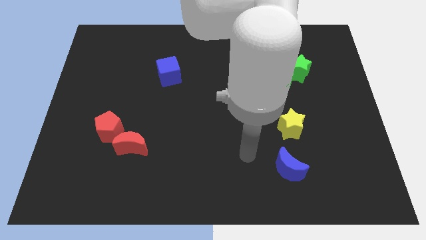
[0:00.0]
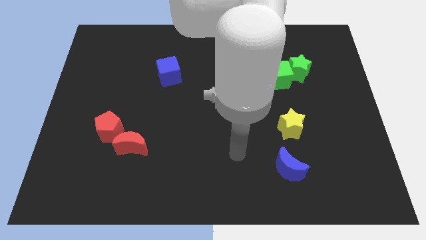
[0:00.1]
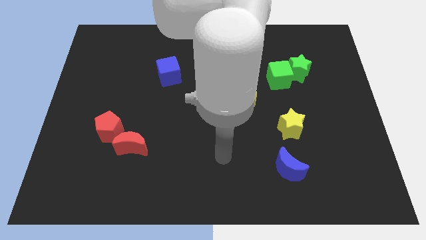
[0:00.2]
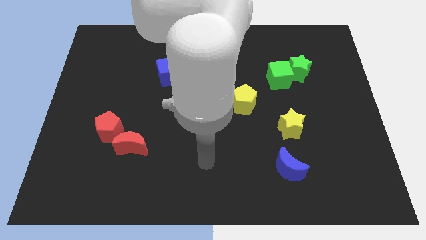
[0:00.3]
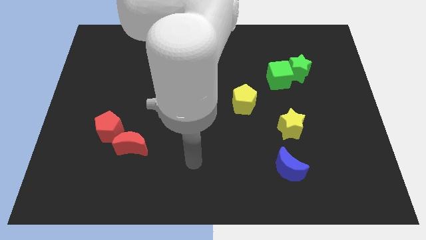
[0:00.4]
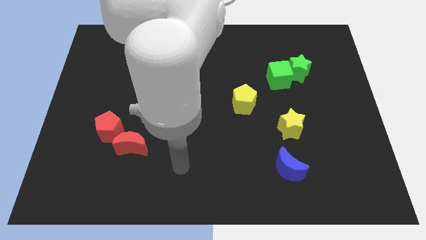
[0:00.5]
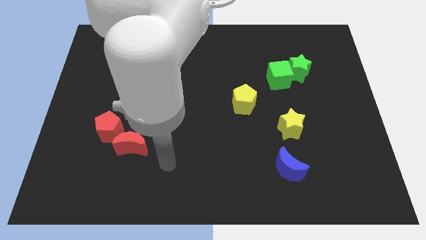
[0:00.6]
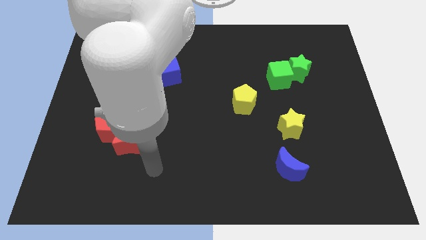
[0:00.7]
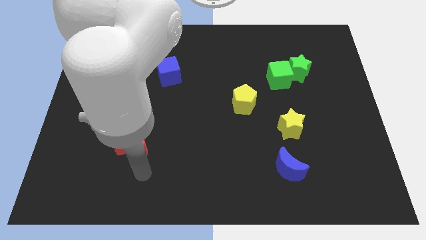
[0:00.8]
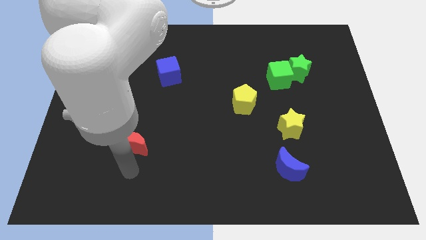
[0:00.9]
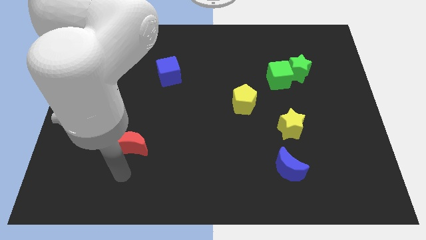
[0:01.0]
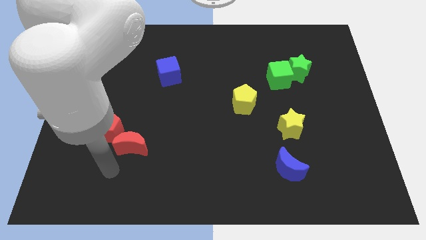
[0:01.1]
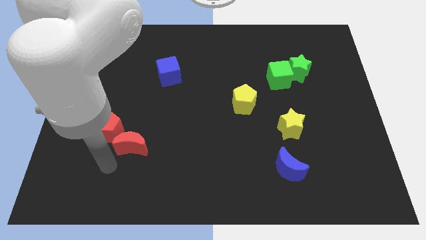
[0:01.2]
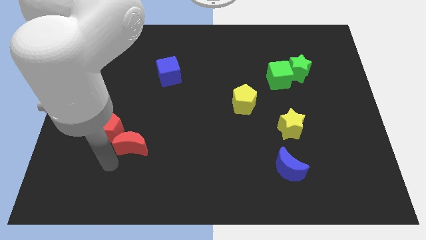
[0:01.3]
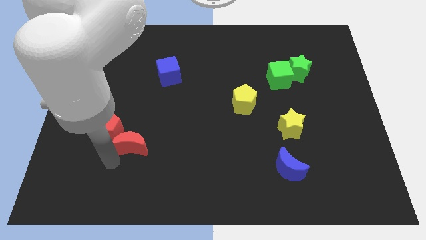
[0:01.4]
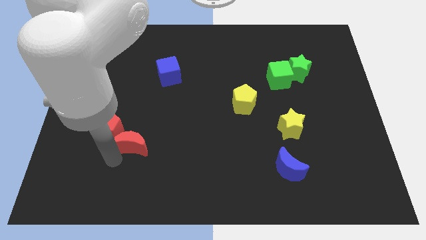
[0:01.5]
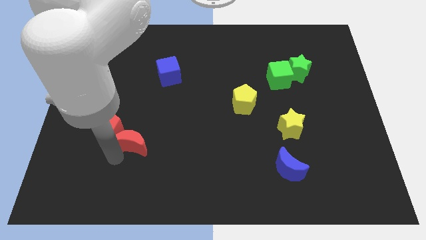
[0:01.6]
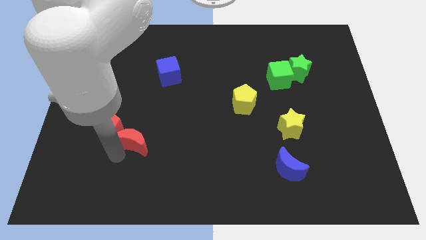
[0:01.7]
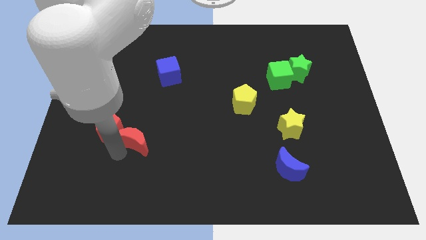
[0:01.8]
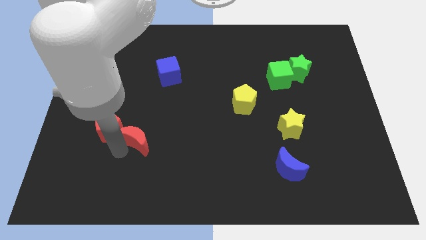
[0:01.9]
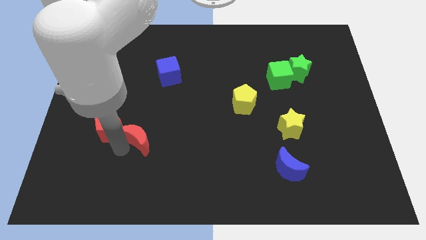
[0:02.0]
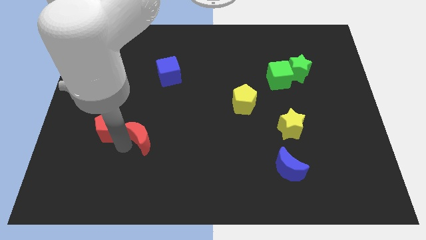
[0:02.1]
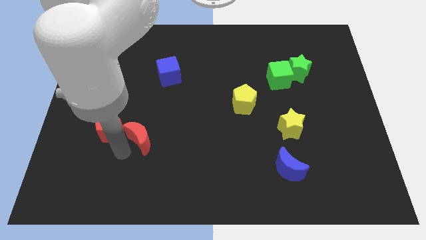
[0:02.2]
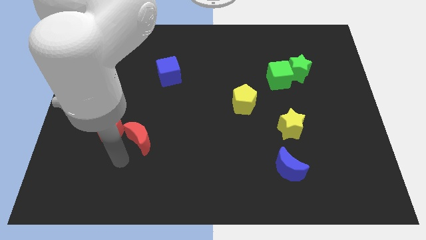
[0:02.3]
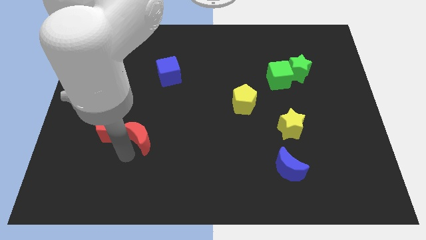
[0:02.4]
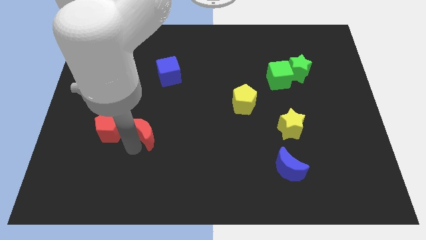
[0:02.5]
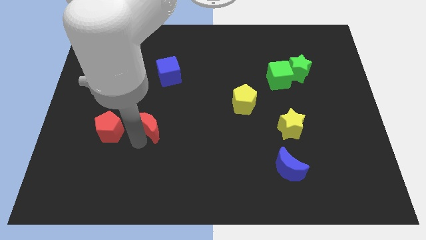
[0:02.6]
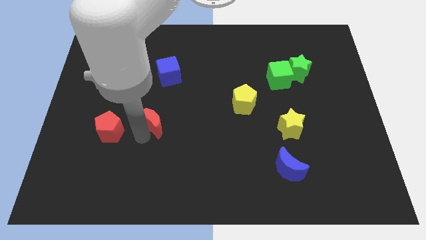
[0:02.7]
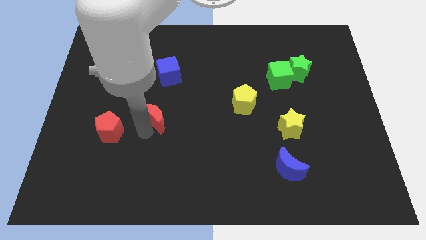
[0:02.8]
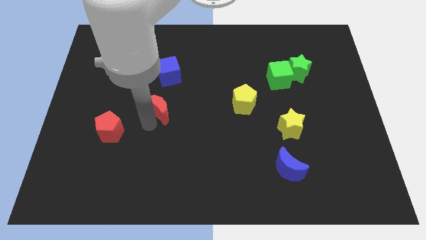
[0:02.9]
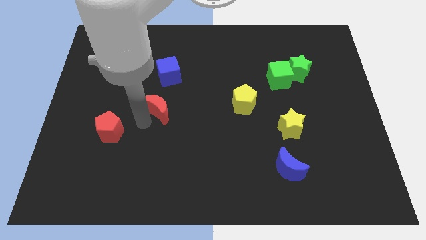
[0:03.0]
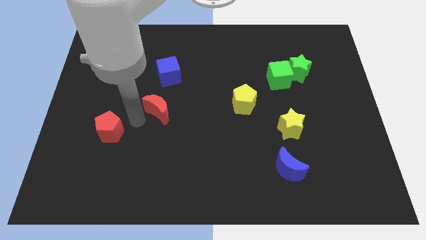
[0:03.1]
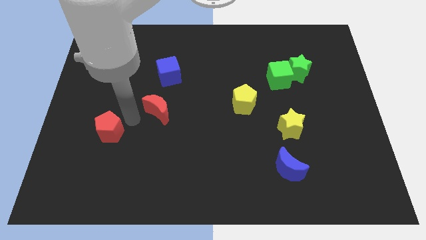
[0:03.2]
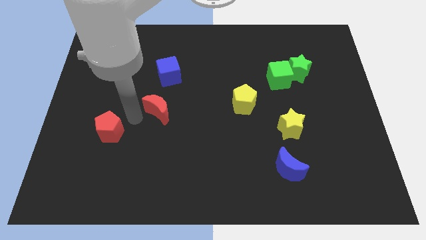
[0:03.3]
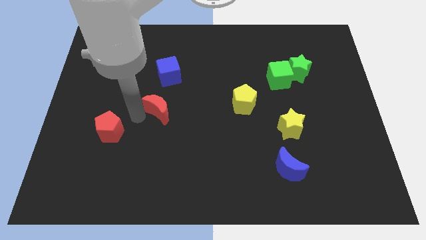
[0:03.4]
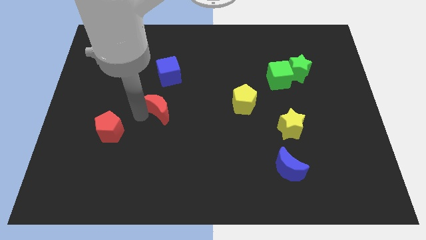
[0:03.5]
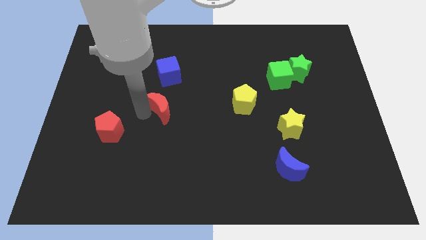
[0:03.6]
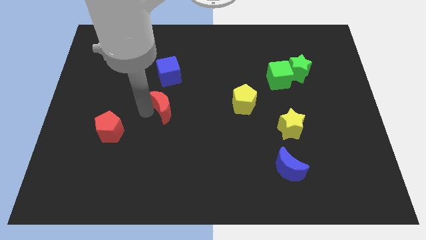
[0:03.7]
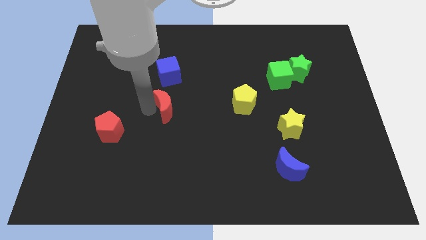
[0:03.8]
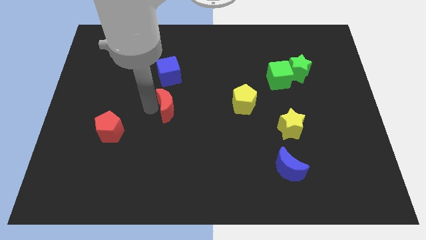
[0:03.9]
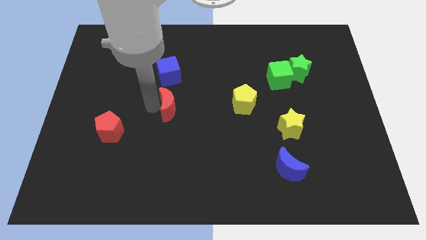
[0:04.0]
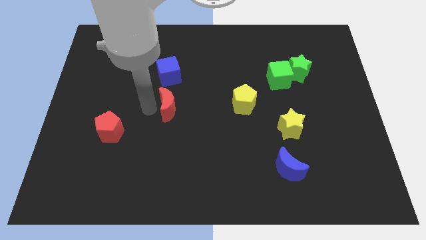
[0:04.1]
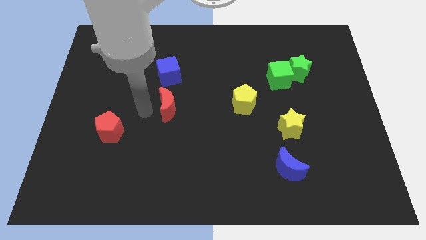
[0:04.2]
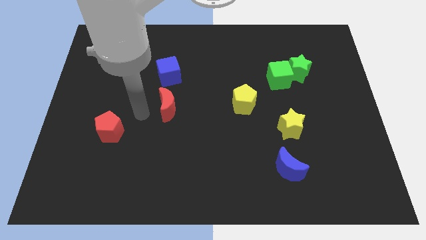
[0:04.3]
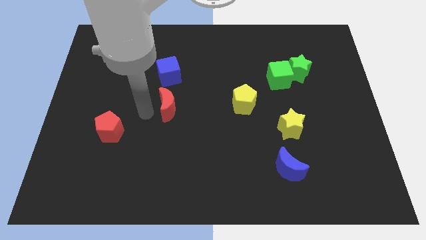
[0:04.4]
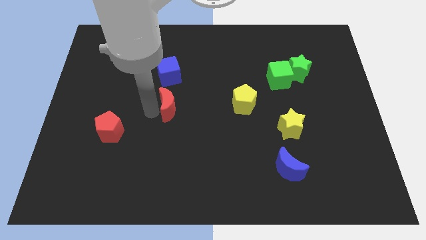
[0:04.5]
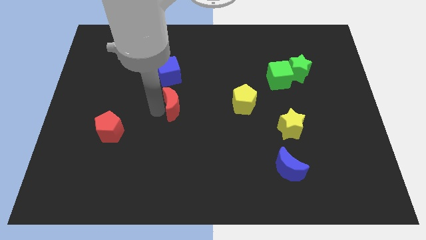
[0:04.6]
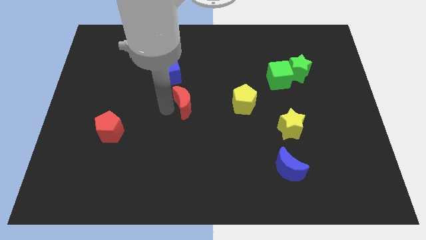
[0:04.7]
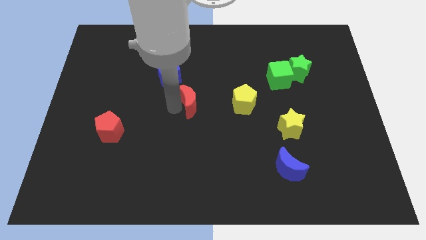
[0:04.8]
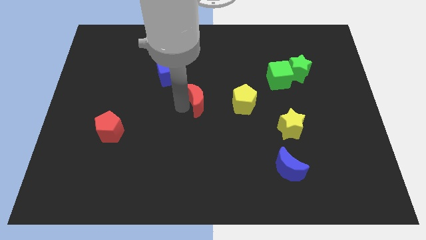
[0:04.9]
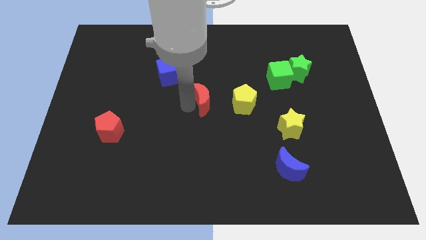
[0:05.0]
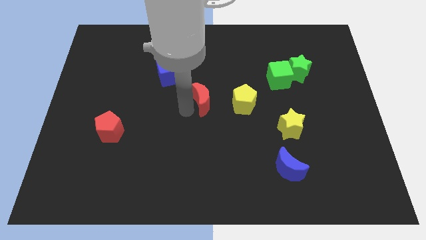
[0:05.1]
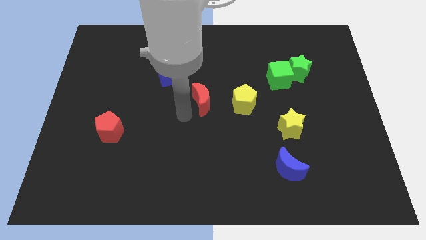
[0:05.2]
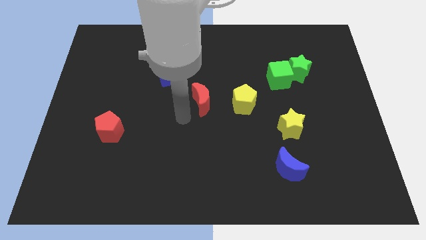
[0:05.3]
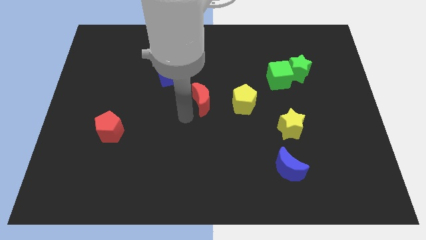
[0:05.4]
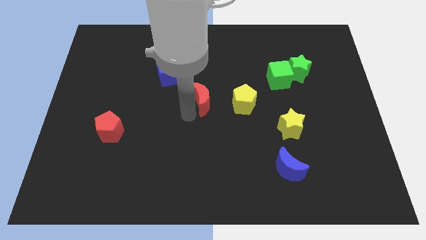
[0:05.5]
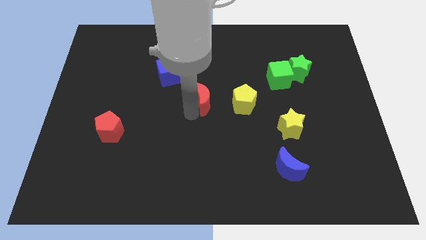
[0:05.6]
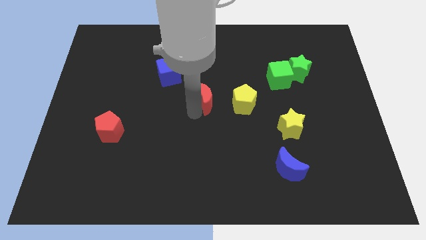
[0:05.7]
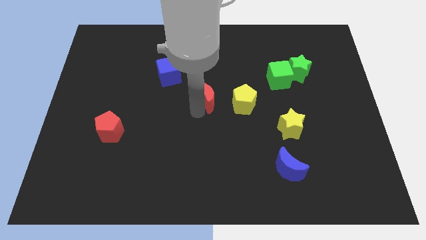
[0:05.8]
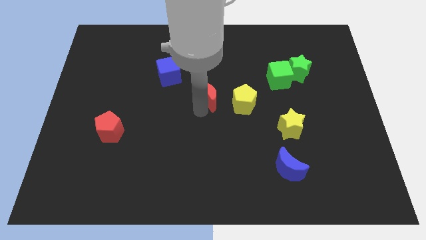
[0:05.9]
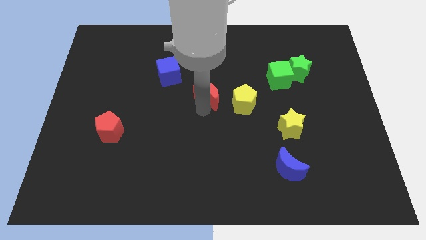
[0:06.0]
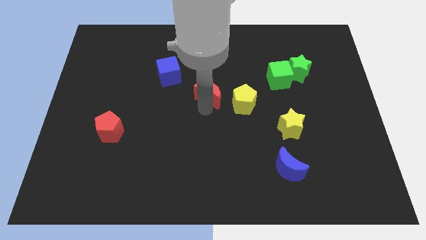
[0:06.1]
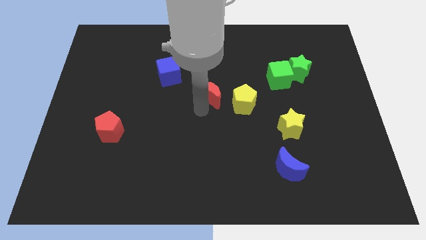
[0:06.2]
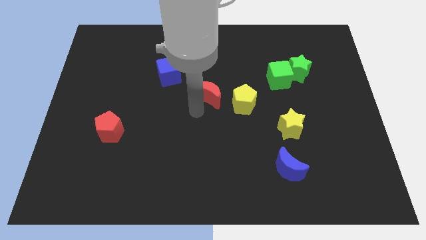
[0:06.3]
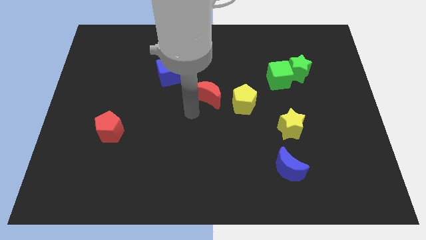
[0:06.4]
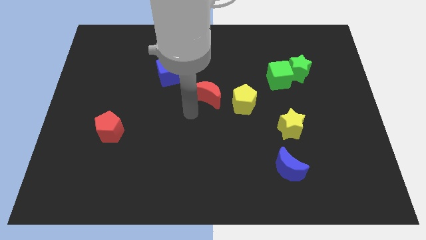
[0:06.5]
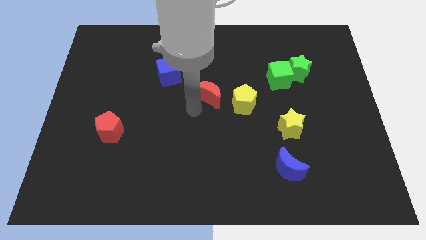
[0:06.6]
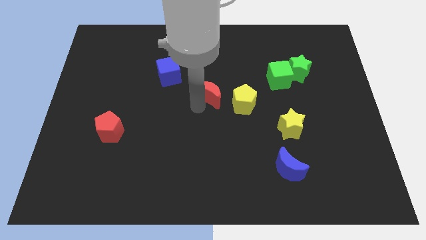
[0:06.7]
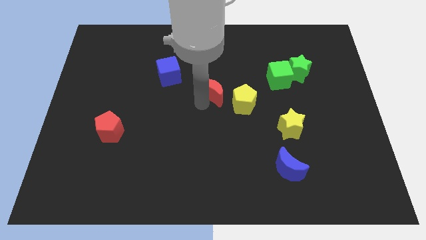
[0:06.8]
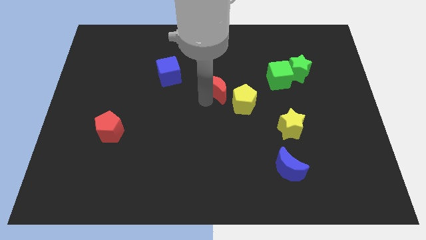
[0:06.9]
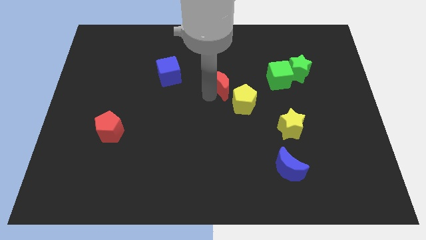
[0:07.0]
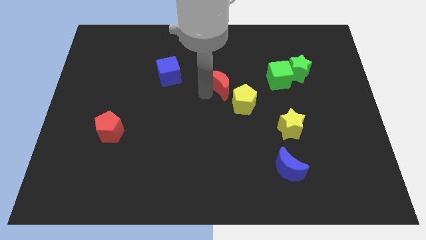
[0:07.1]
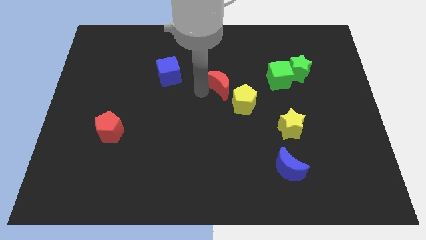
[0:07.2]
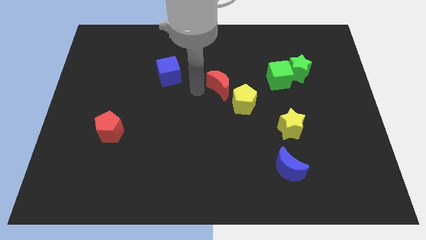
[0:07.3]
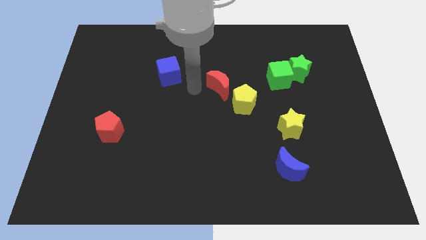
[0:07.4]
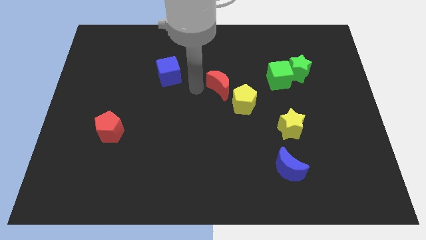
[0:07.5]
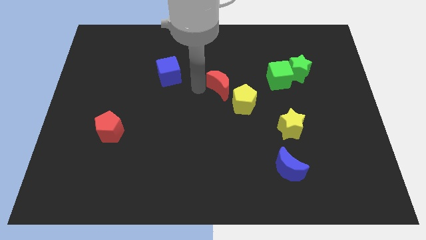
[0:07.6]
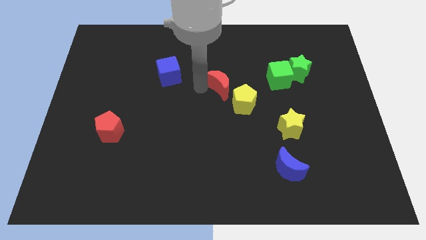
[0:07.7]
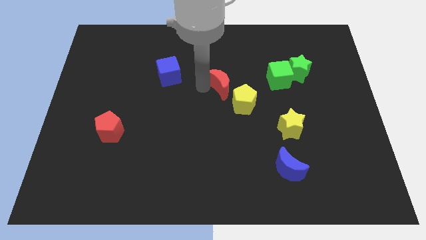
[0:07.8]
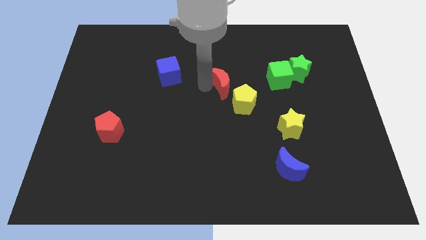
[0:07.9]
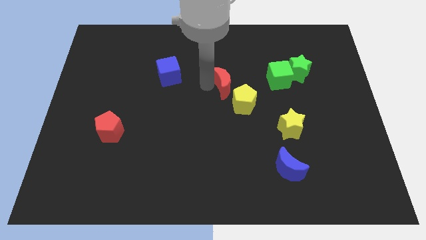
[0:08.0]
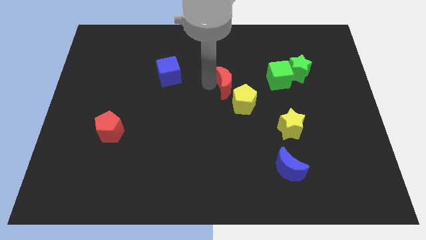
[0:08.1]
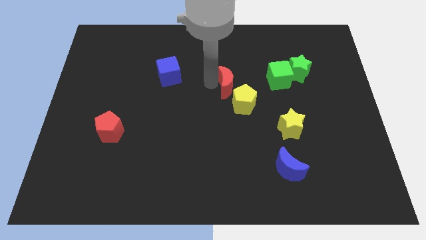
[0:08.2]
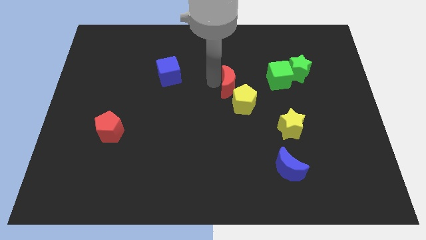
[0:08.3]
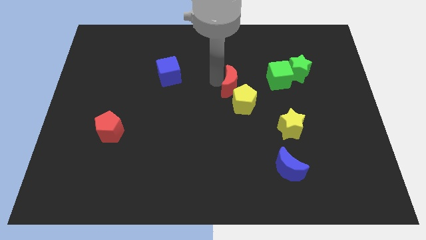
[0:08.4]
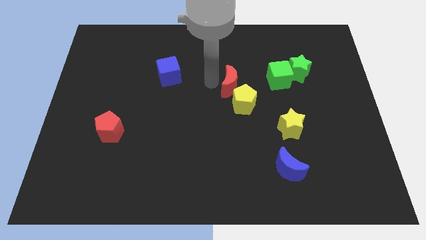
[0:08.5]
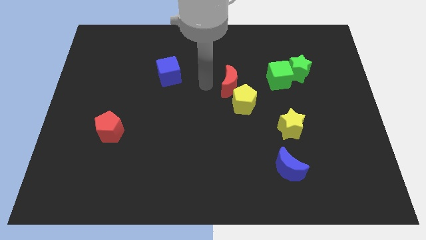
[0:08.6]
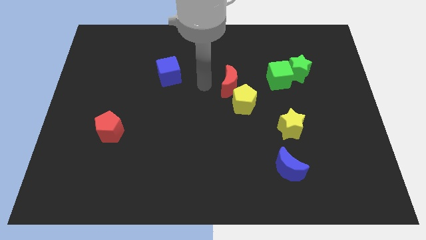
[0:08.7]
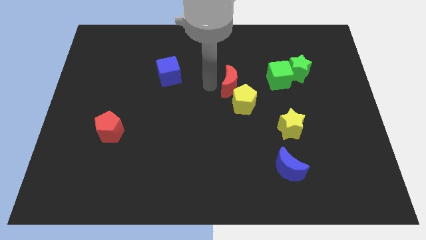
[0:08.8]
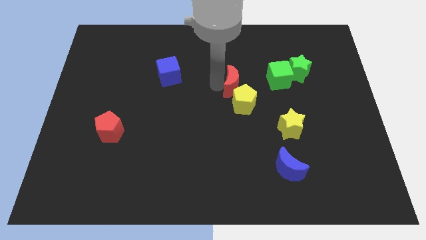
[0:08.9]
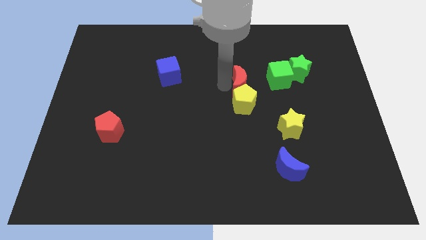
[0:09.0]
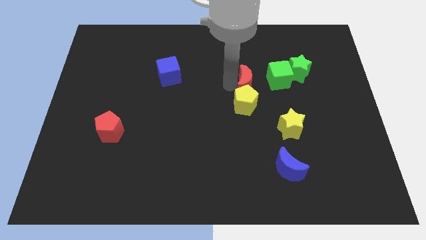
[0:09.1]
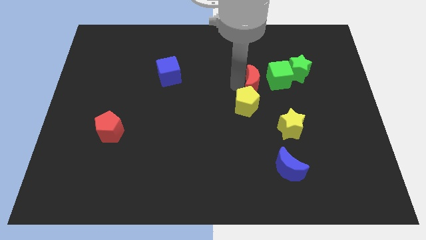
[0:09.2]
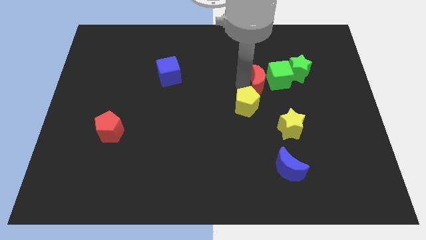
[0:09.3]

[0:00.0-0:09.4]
move the red moon next to the green cube
